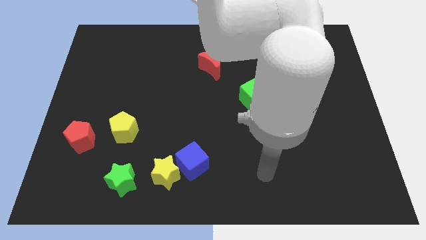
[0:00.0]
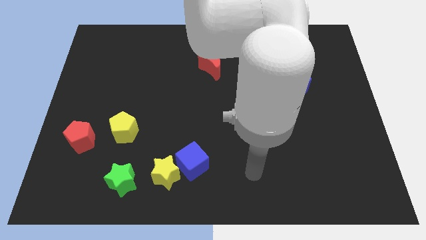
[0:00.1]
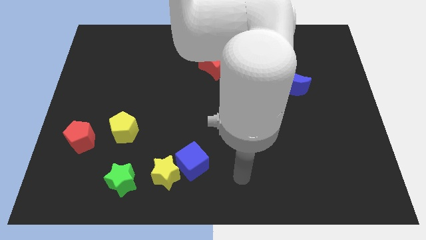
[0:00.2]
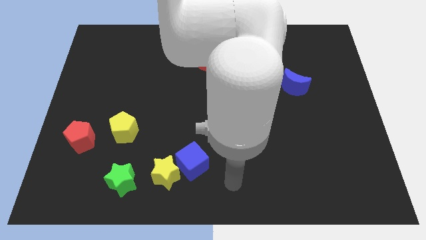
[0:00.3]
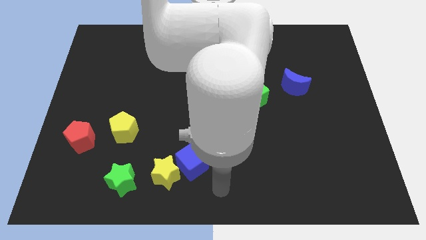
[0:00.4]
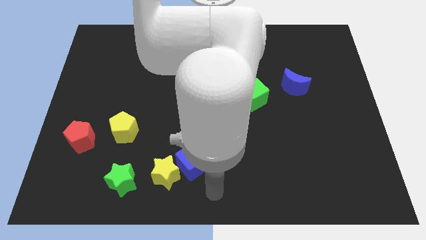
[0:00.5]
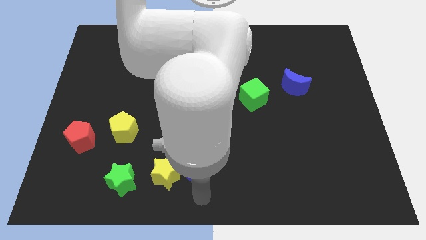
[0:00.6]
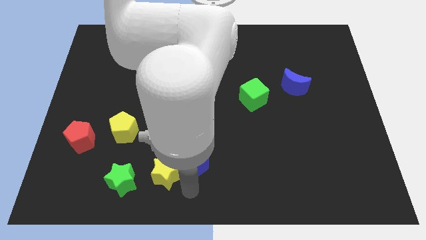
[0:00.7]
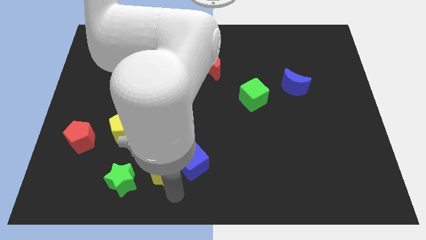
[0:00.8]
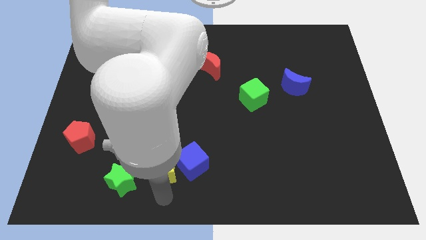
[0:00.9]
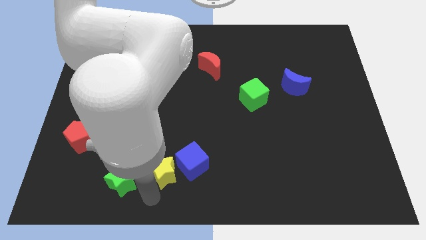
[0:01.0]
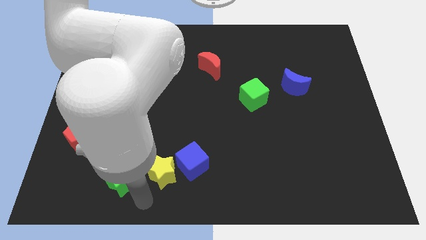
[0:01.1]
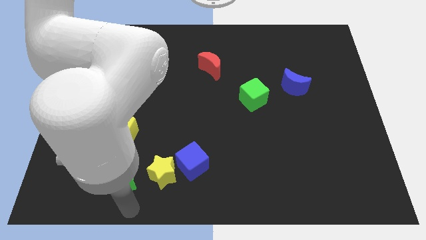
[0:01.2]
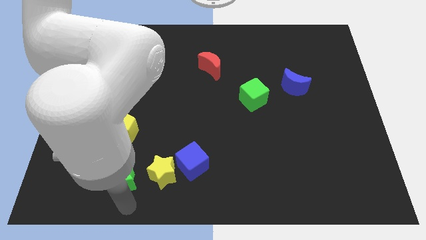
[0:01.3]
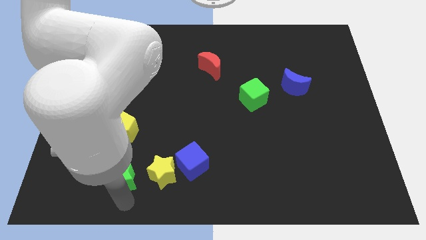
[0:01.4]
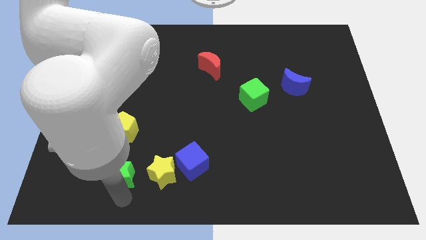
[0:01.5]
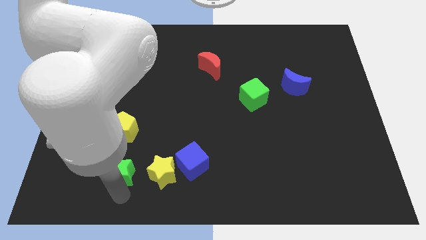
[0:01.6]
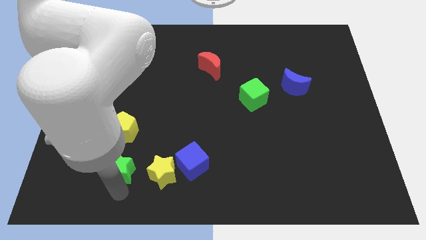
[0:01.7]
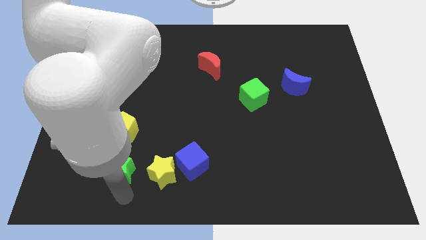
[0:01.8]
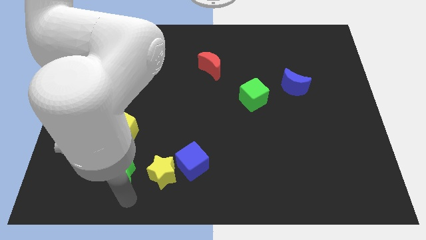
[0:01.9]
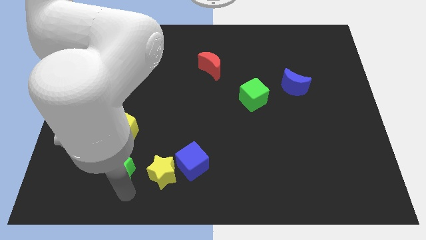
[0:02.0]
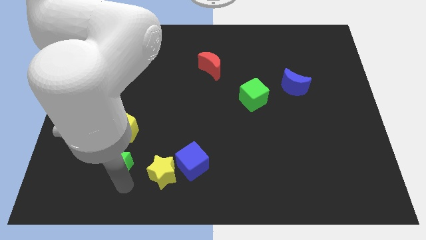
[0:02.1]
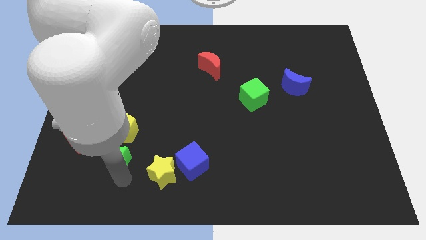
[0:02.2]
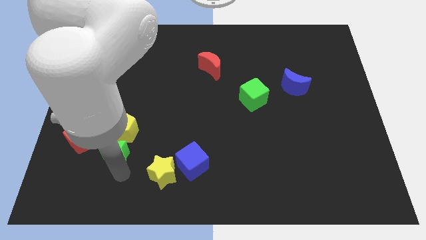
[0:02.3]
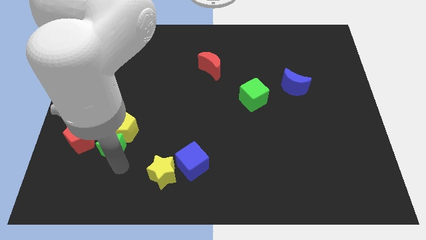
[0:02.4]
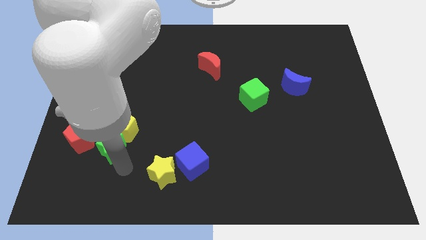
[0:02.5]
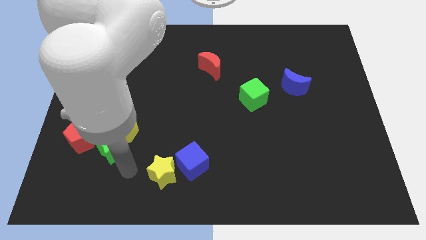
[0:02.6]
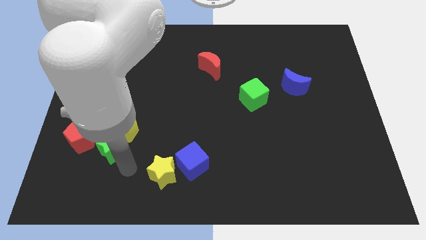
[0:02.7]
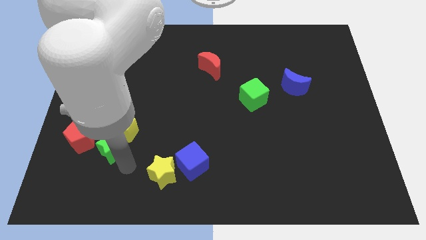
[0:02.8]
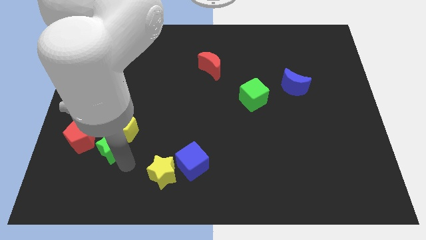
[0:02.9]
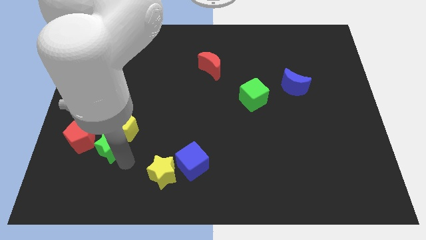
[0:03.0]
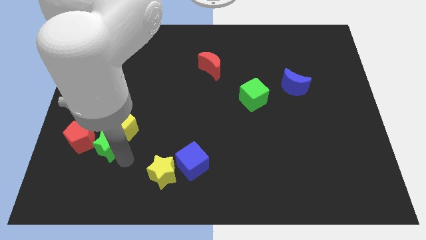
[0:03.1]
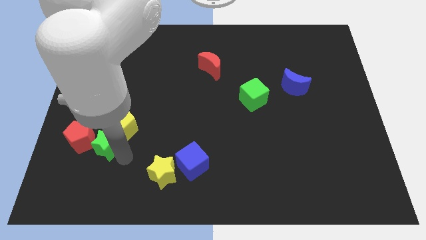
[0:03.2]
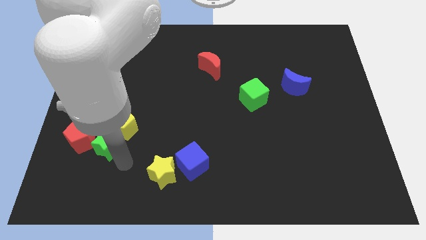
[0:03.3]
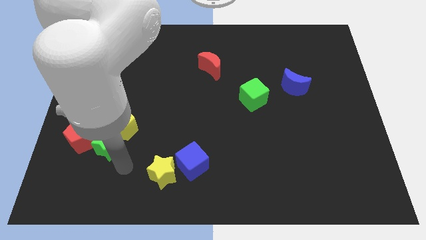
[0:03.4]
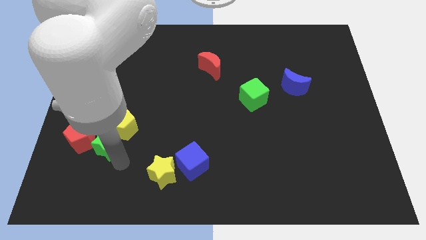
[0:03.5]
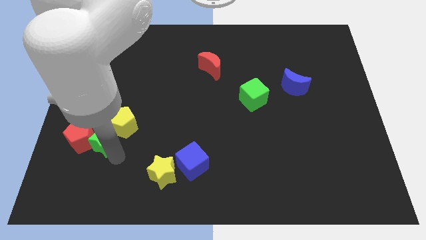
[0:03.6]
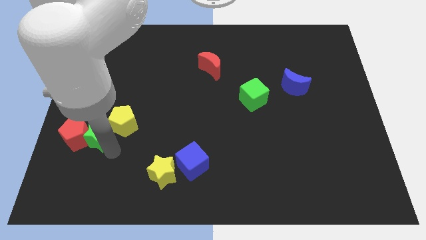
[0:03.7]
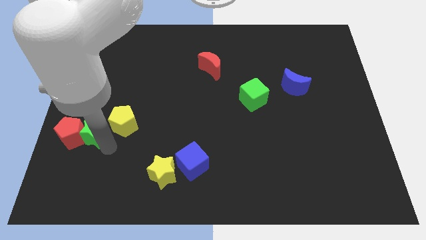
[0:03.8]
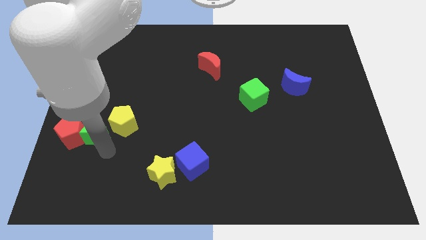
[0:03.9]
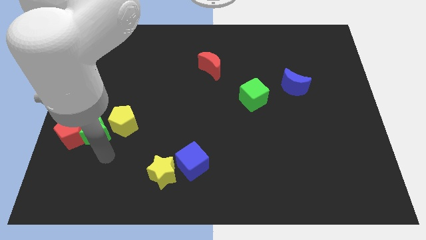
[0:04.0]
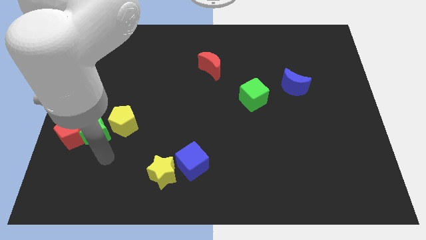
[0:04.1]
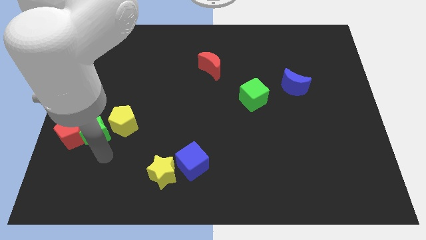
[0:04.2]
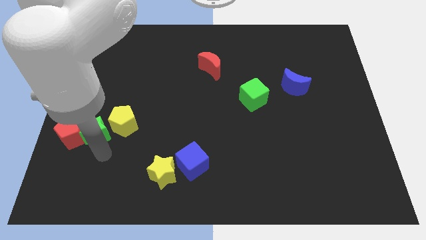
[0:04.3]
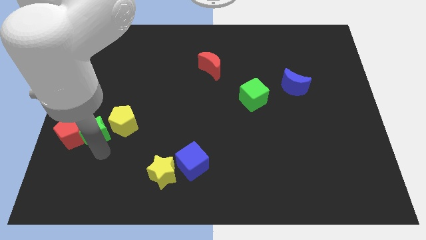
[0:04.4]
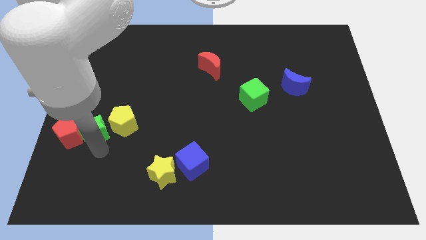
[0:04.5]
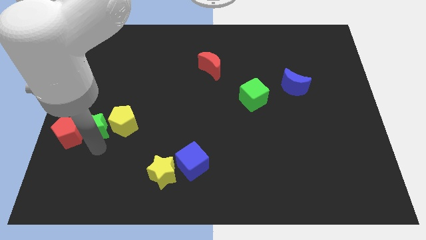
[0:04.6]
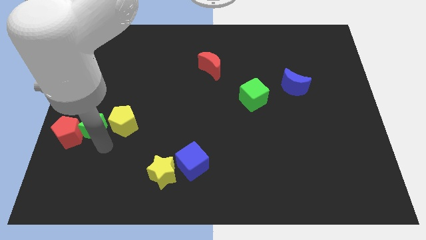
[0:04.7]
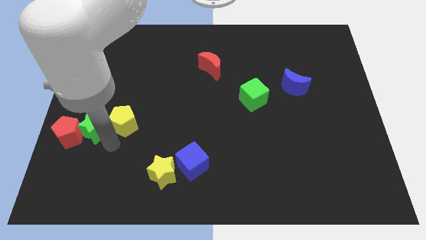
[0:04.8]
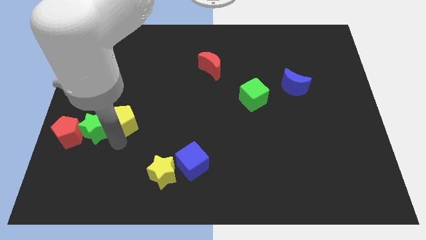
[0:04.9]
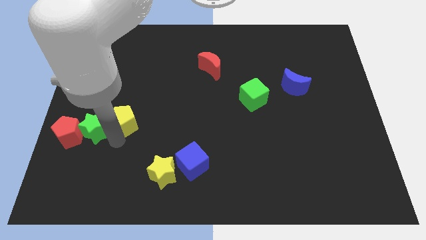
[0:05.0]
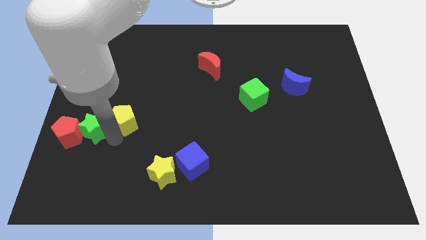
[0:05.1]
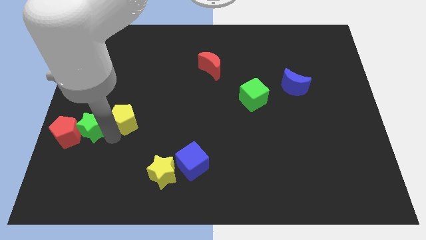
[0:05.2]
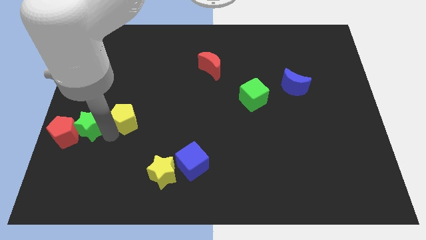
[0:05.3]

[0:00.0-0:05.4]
move the green star to the left side of the board

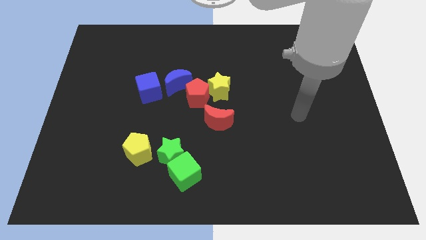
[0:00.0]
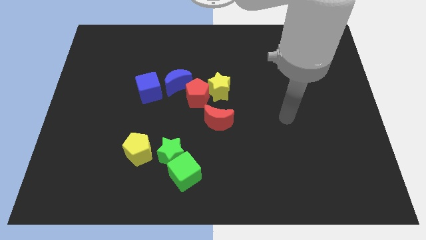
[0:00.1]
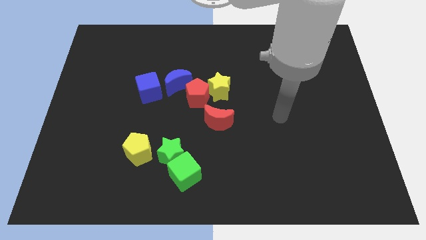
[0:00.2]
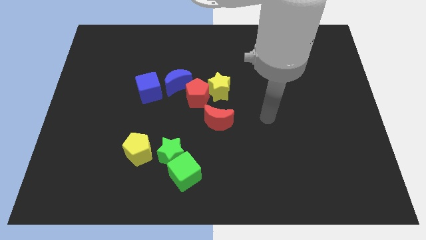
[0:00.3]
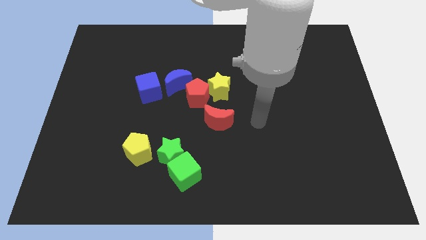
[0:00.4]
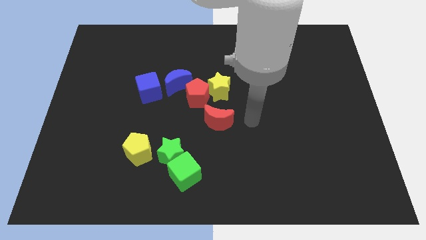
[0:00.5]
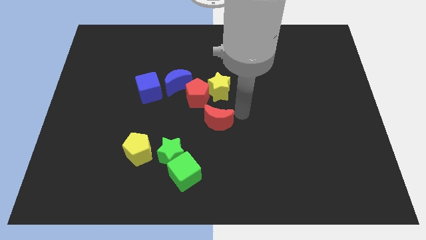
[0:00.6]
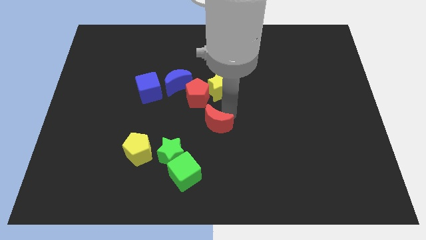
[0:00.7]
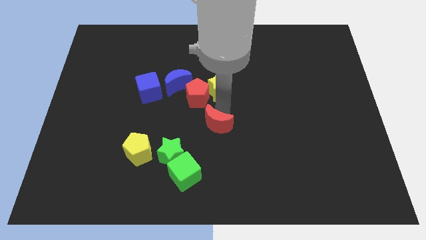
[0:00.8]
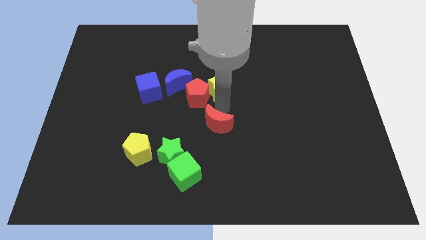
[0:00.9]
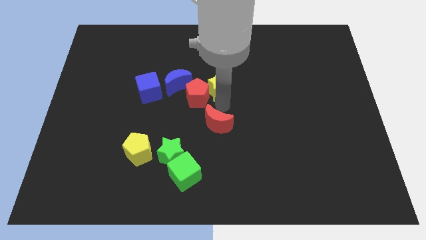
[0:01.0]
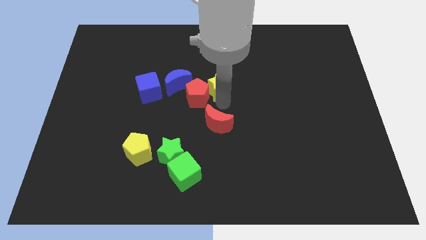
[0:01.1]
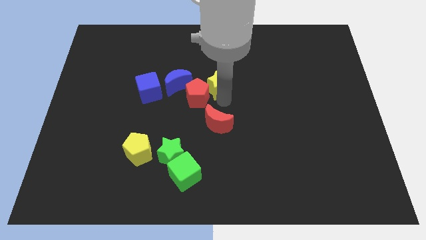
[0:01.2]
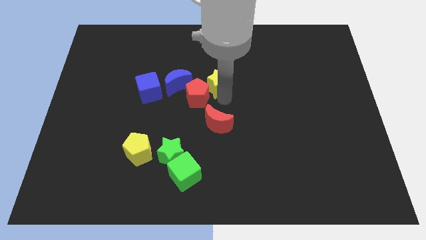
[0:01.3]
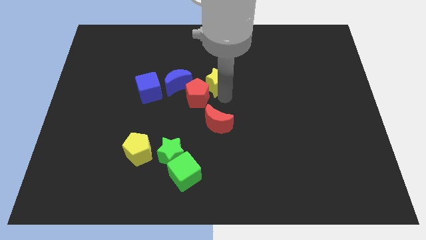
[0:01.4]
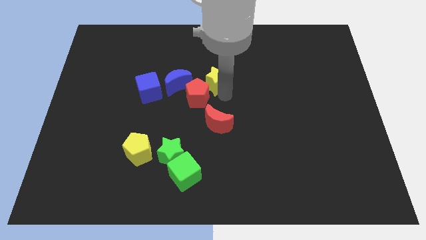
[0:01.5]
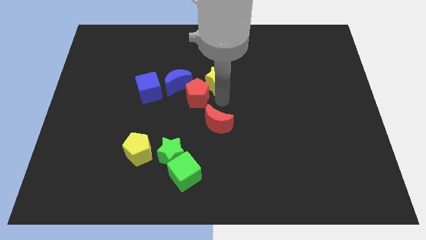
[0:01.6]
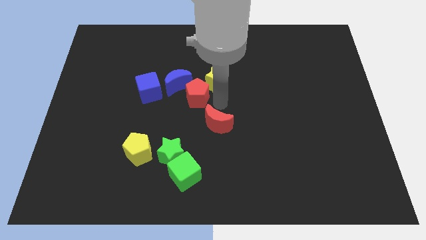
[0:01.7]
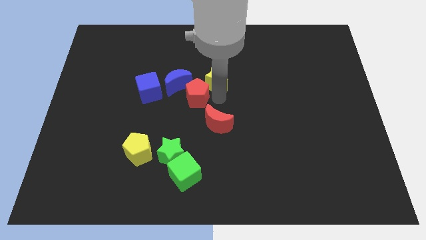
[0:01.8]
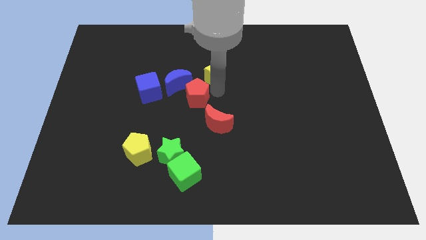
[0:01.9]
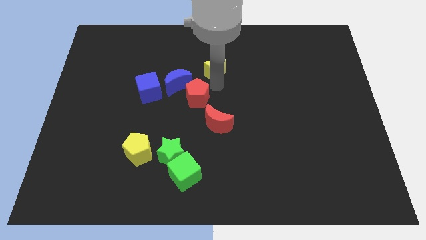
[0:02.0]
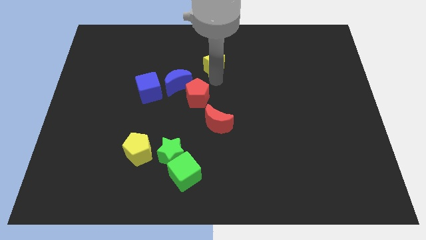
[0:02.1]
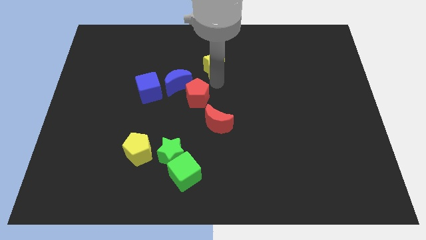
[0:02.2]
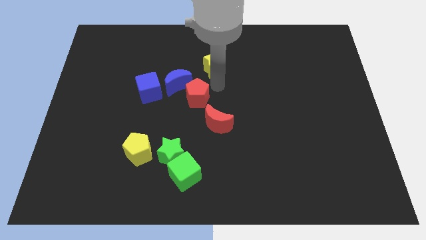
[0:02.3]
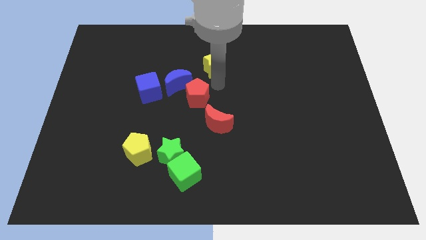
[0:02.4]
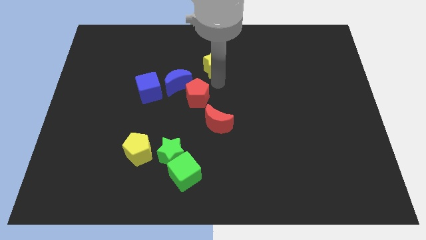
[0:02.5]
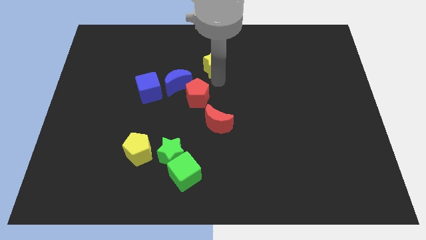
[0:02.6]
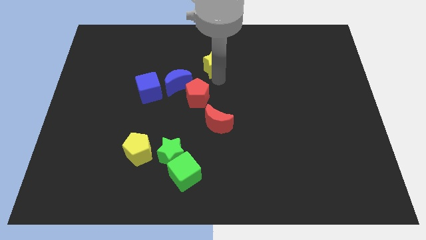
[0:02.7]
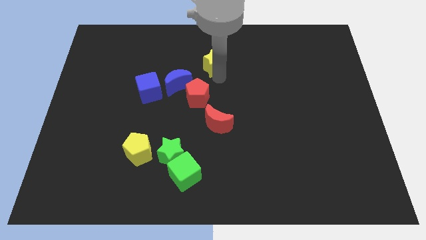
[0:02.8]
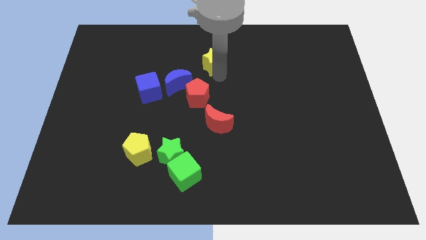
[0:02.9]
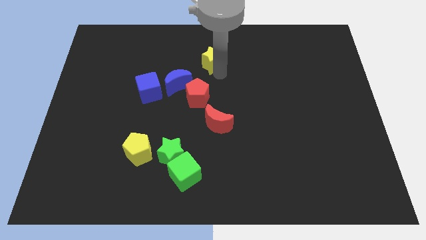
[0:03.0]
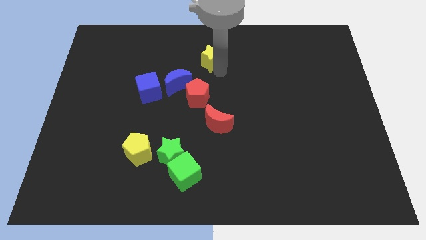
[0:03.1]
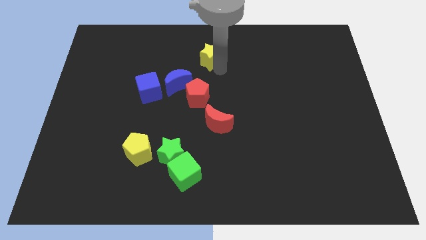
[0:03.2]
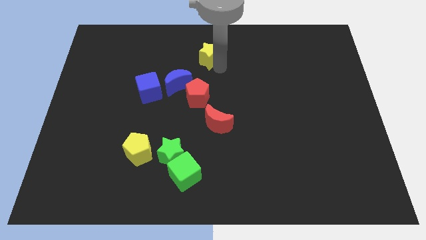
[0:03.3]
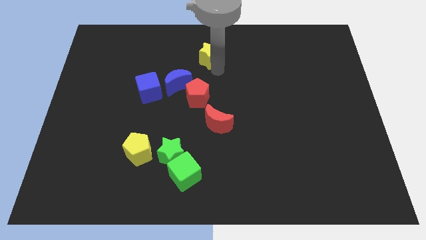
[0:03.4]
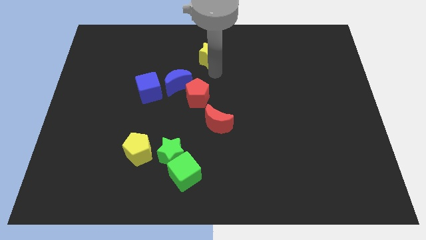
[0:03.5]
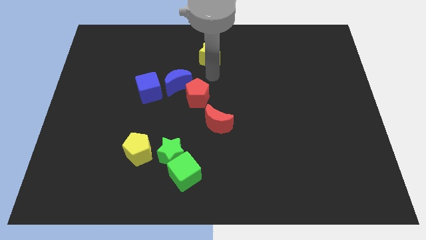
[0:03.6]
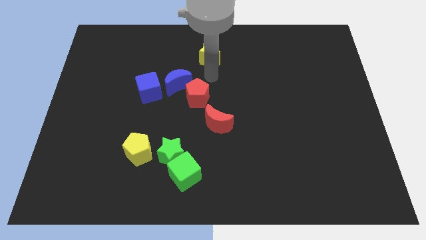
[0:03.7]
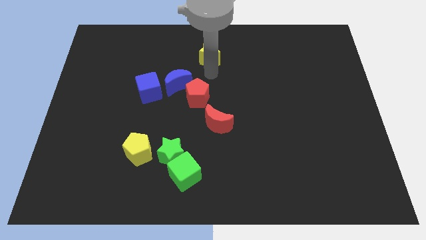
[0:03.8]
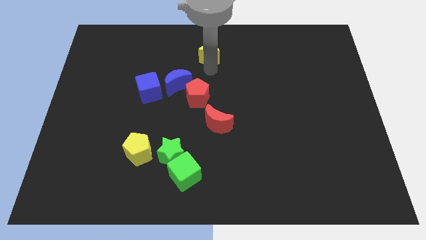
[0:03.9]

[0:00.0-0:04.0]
move the yellow star to the towards your base
